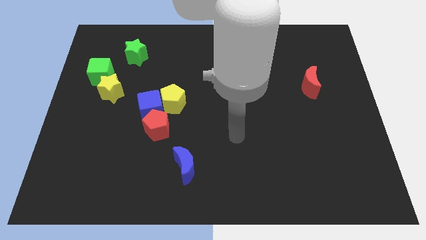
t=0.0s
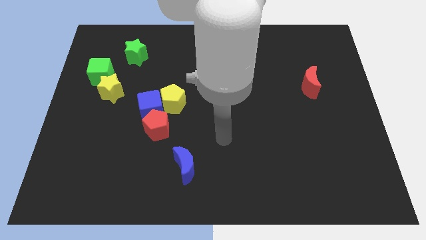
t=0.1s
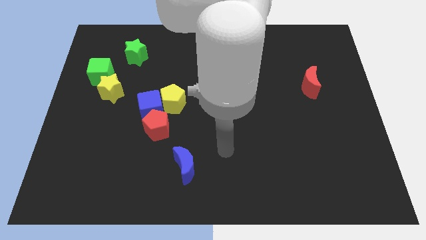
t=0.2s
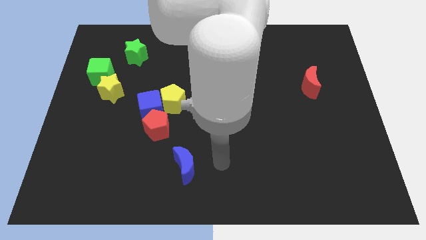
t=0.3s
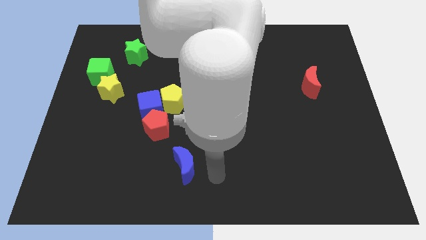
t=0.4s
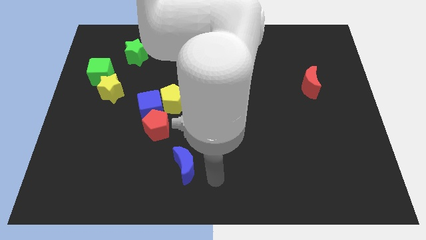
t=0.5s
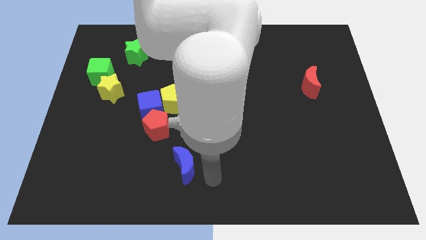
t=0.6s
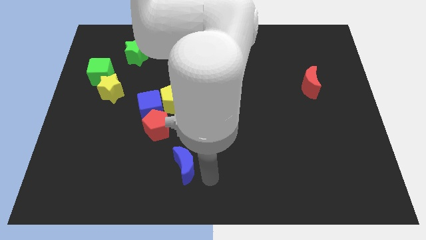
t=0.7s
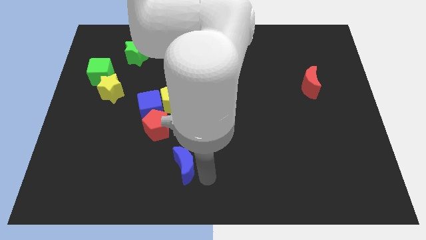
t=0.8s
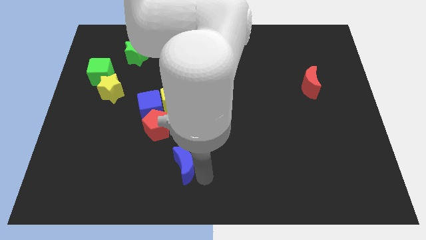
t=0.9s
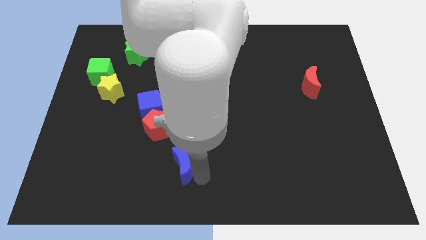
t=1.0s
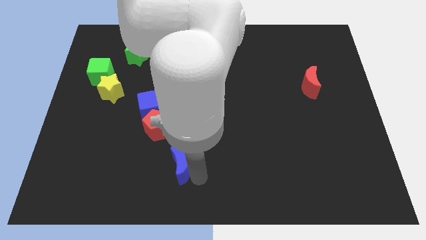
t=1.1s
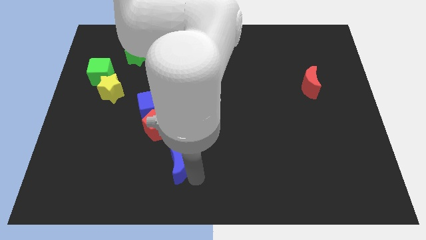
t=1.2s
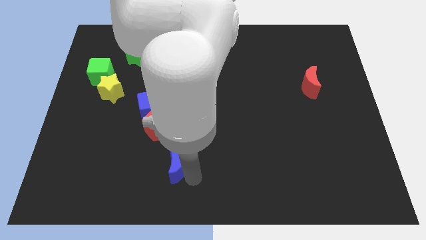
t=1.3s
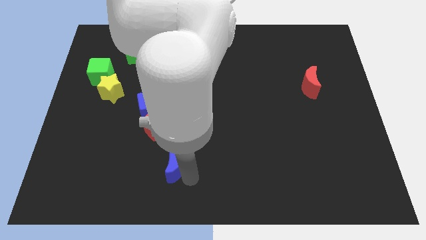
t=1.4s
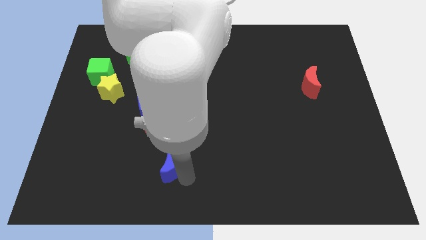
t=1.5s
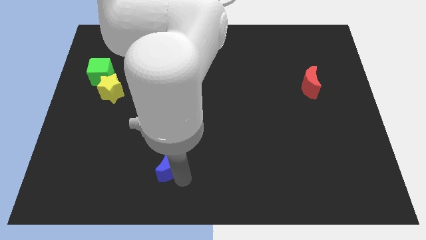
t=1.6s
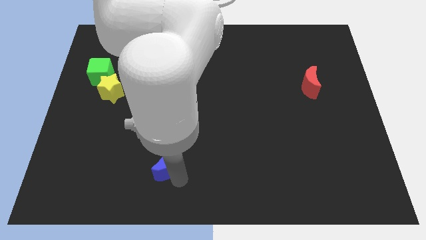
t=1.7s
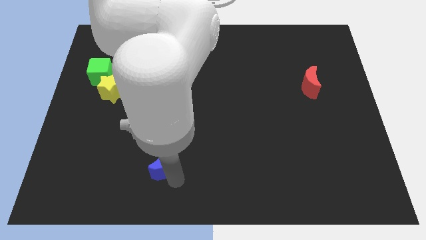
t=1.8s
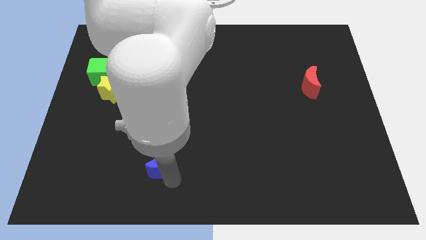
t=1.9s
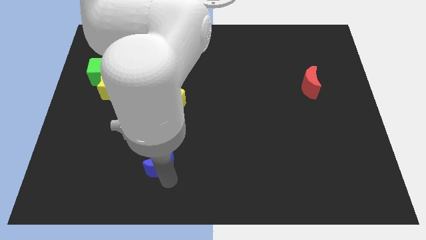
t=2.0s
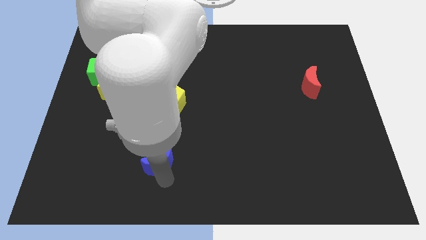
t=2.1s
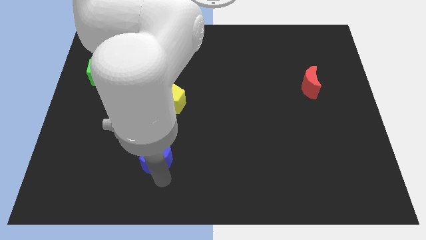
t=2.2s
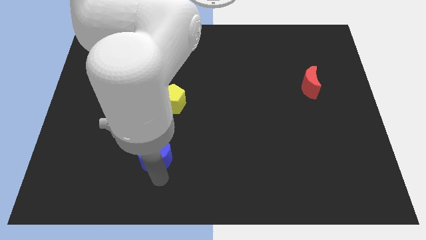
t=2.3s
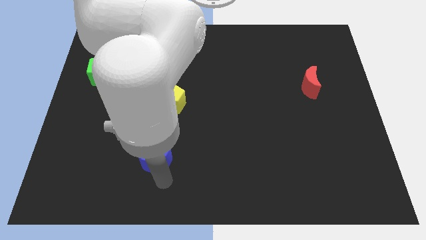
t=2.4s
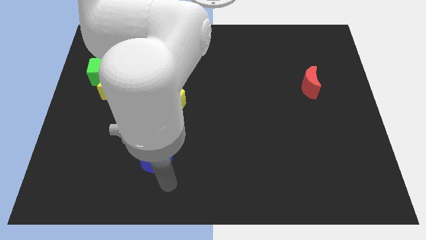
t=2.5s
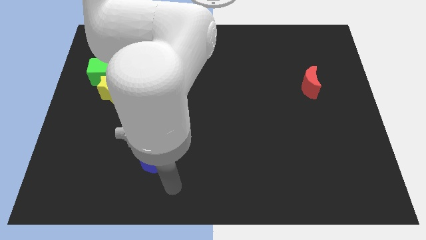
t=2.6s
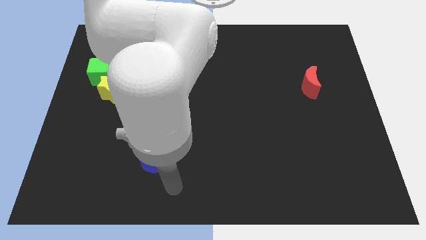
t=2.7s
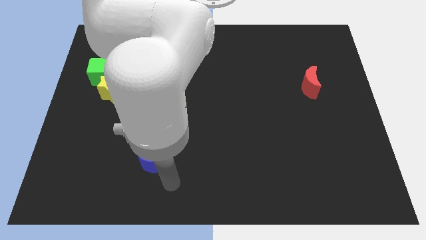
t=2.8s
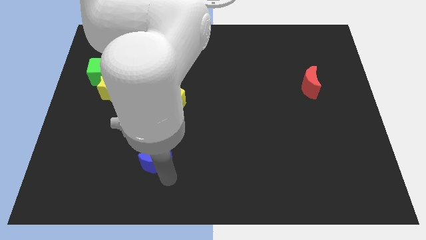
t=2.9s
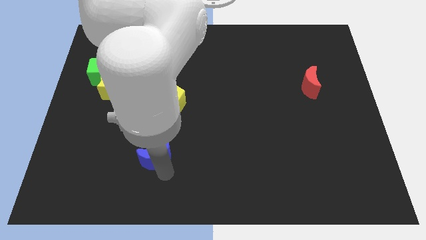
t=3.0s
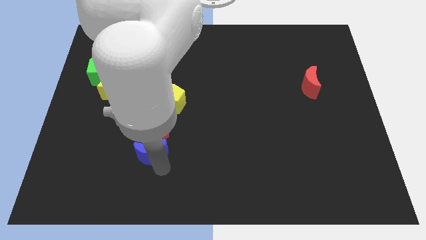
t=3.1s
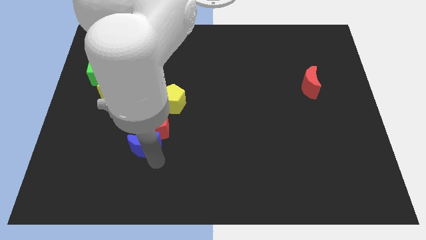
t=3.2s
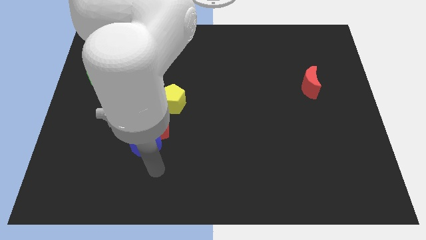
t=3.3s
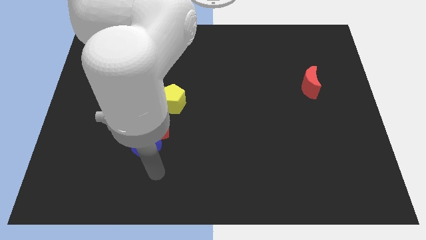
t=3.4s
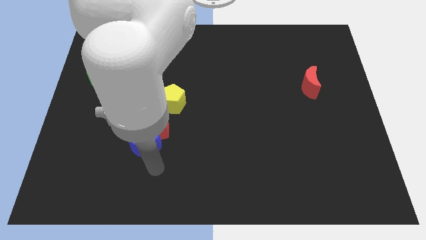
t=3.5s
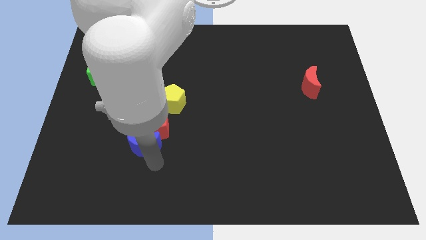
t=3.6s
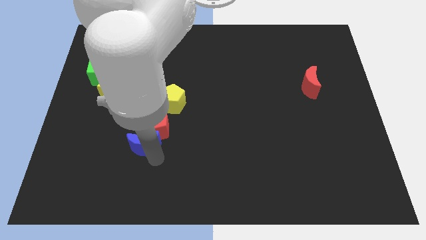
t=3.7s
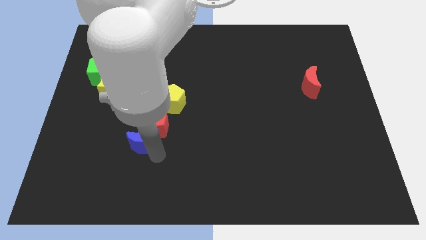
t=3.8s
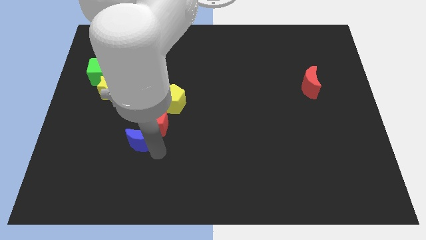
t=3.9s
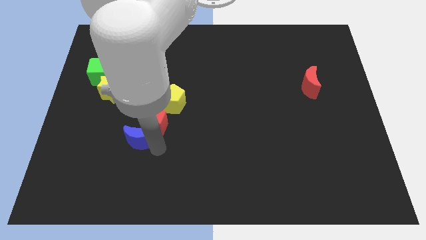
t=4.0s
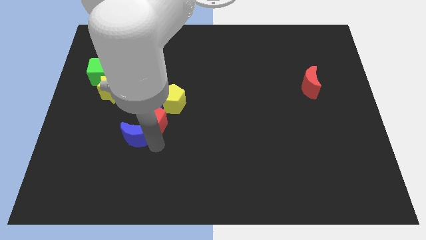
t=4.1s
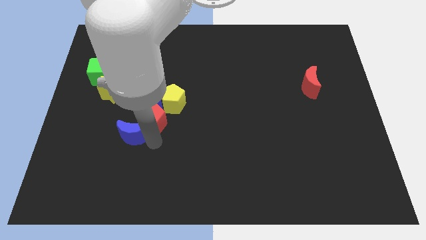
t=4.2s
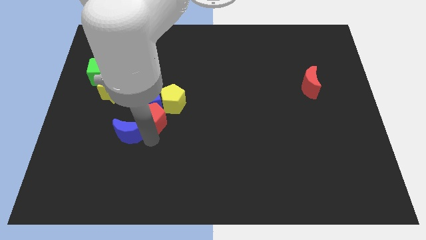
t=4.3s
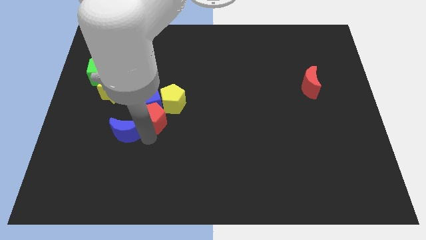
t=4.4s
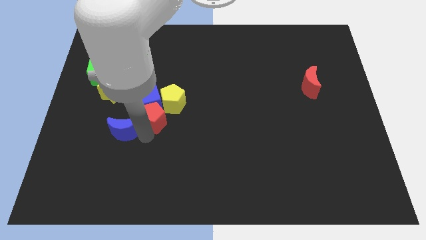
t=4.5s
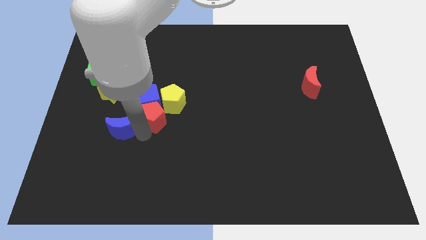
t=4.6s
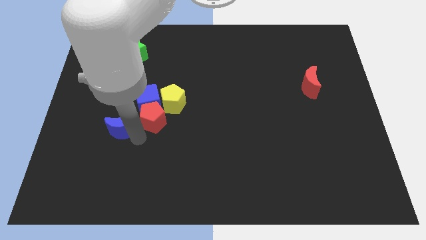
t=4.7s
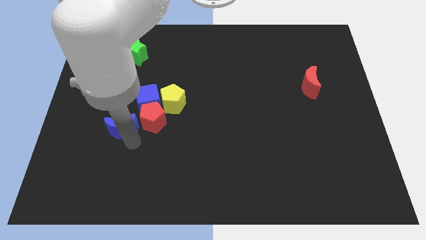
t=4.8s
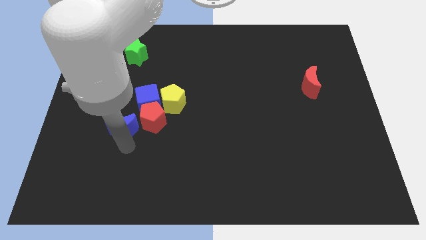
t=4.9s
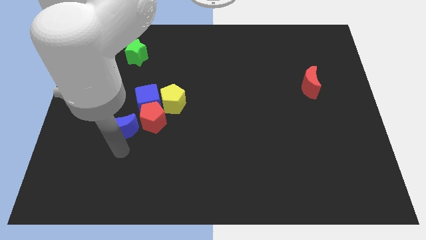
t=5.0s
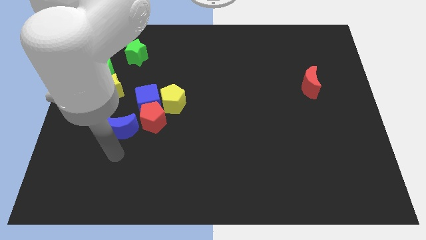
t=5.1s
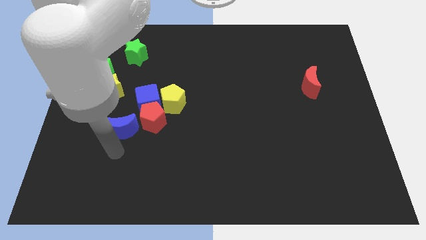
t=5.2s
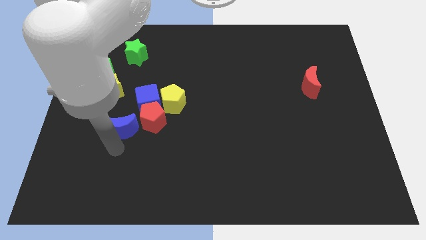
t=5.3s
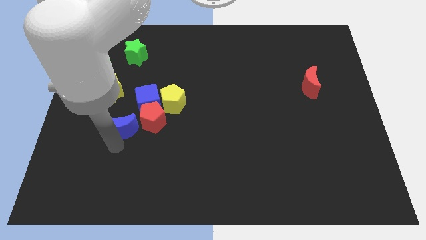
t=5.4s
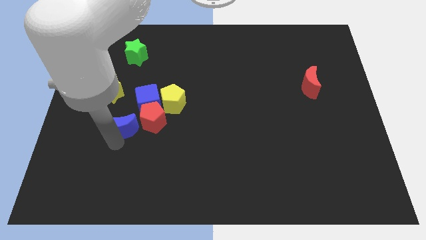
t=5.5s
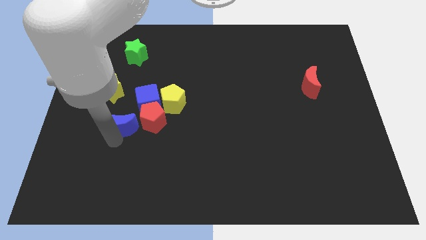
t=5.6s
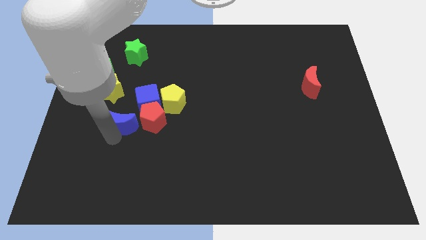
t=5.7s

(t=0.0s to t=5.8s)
push the blue moon to the bottom right of the yellow star

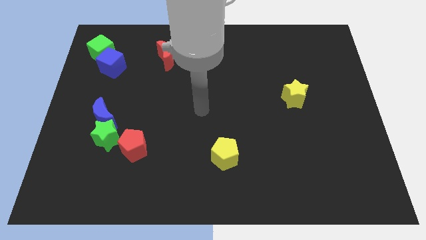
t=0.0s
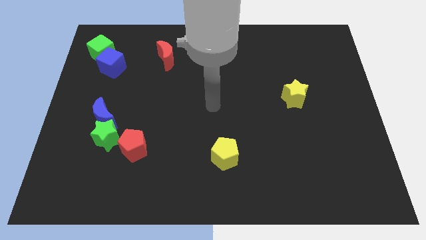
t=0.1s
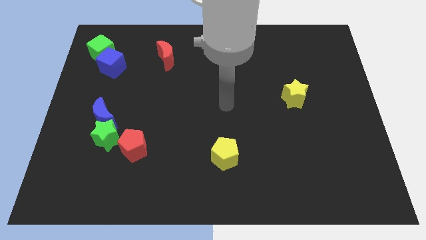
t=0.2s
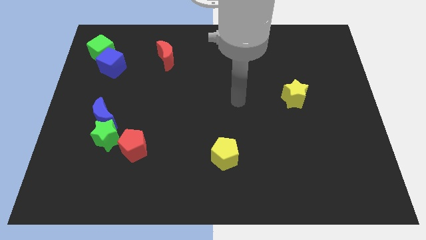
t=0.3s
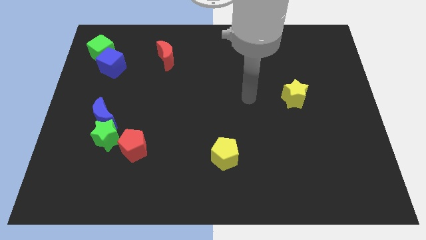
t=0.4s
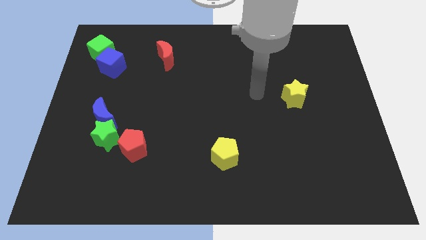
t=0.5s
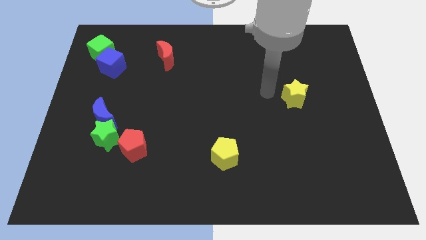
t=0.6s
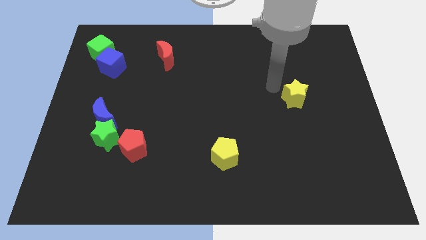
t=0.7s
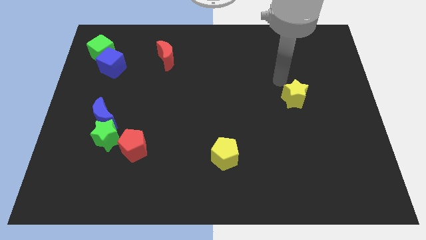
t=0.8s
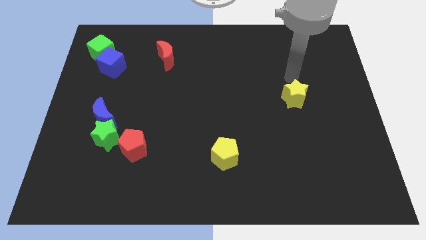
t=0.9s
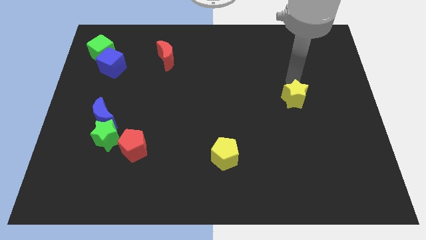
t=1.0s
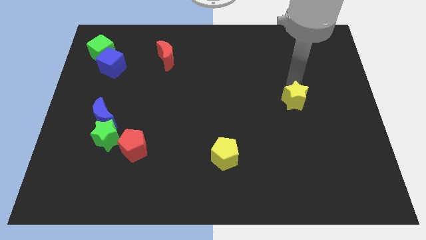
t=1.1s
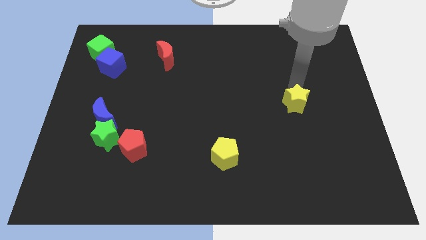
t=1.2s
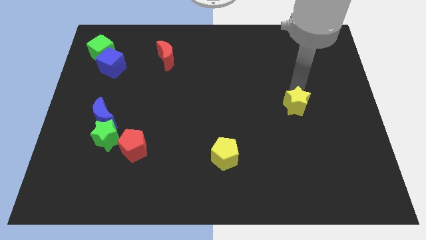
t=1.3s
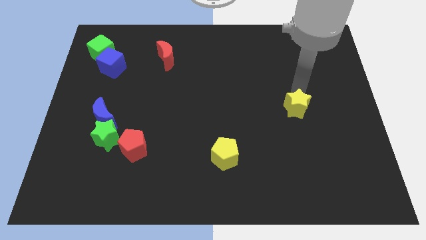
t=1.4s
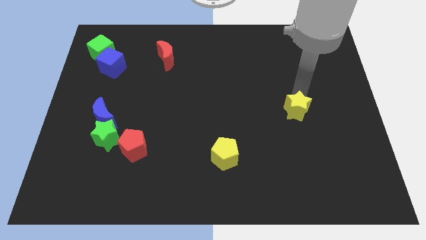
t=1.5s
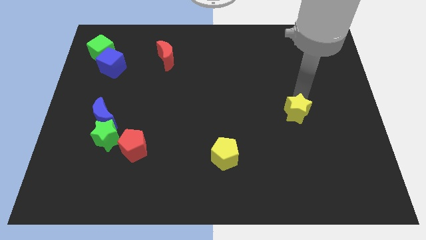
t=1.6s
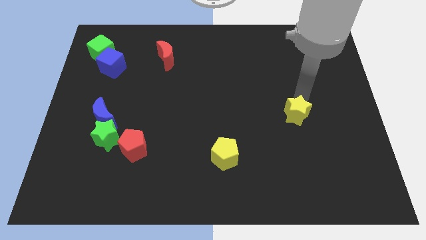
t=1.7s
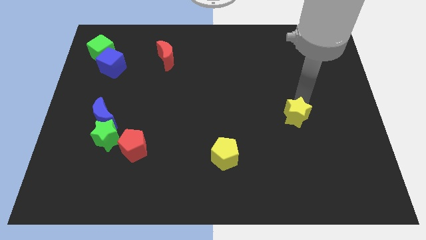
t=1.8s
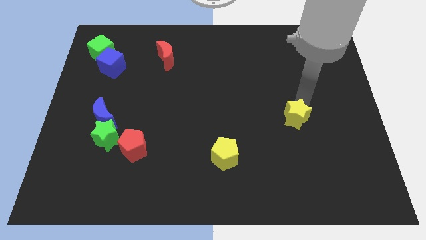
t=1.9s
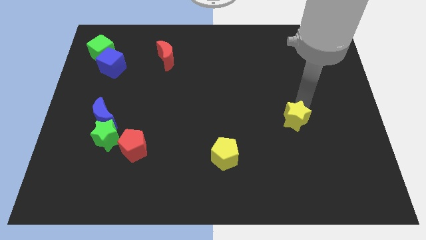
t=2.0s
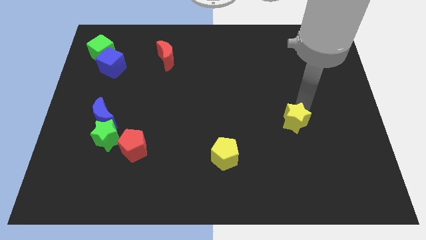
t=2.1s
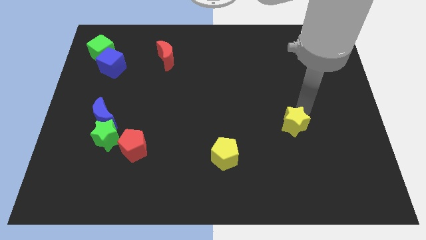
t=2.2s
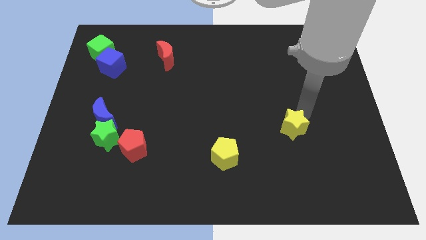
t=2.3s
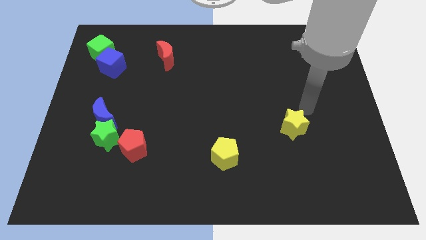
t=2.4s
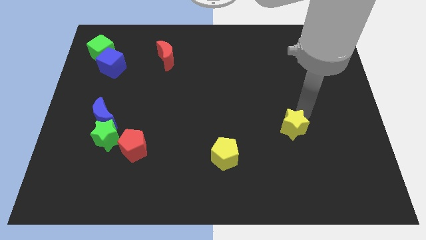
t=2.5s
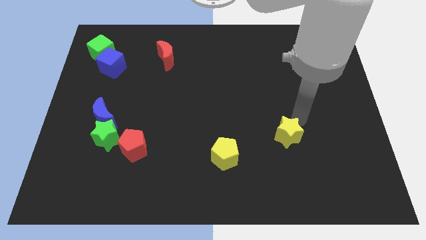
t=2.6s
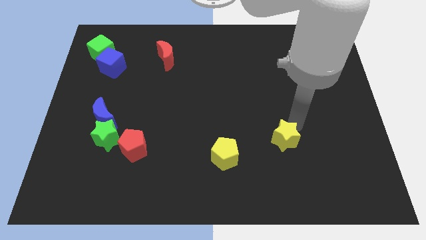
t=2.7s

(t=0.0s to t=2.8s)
move the yellow star to the right of the yellow pentagon
